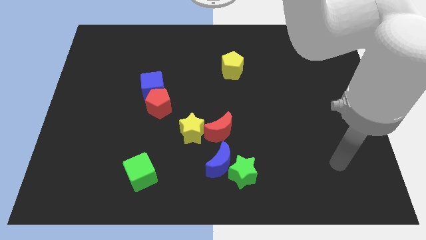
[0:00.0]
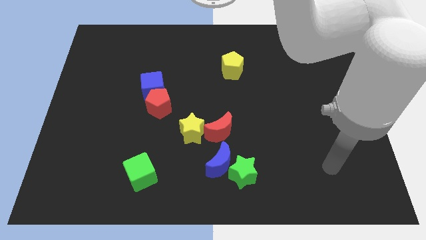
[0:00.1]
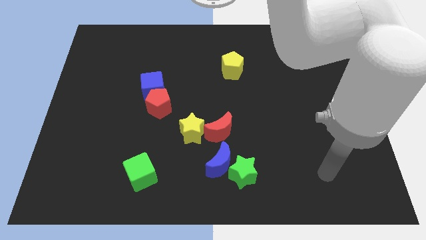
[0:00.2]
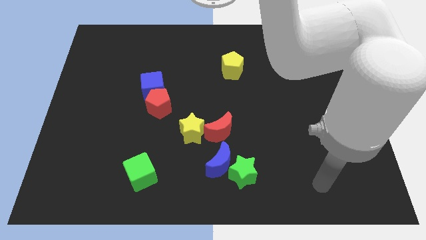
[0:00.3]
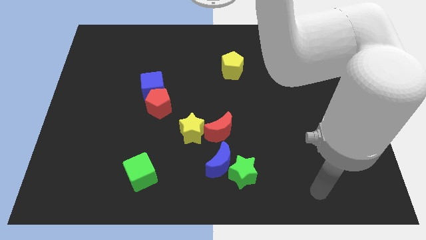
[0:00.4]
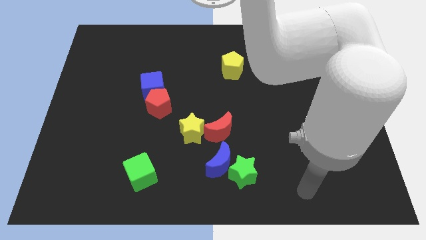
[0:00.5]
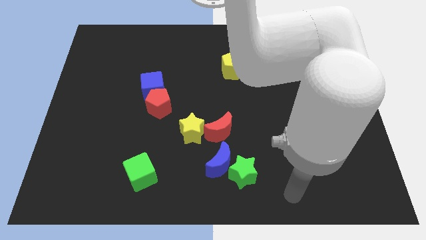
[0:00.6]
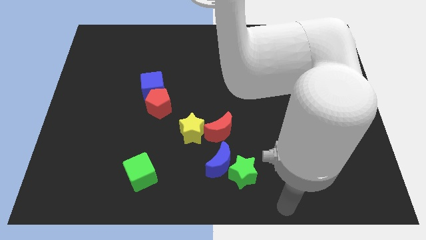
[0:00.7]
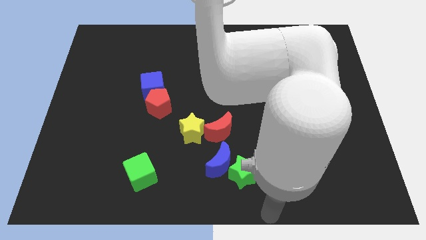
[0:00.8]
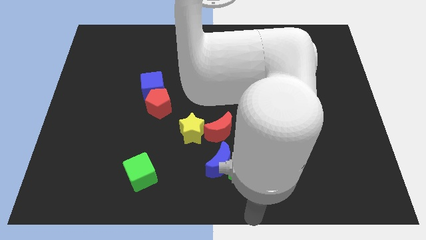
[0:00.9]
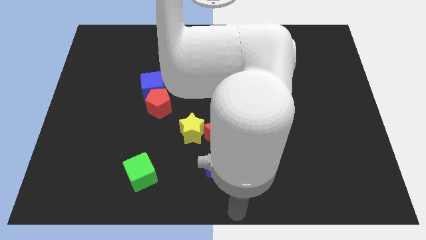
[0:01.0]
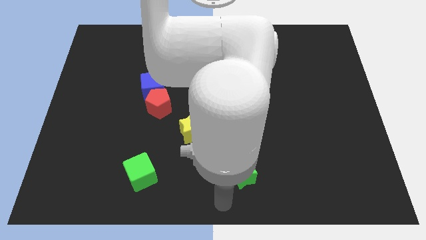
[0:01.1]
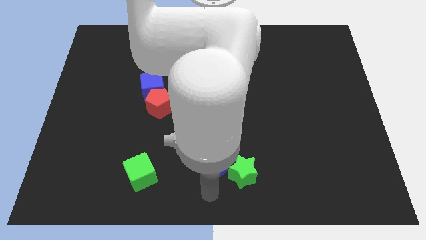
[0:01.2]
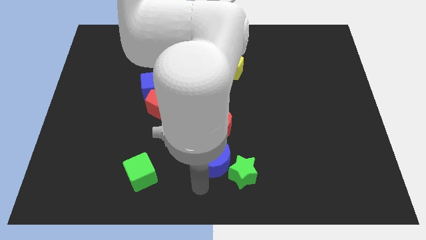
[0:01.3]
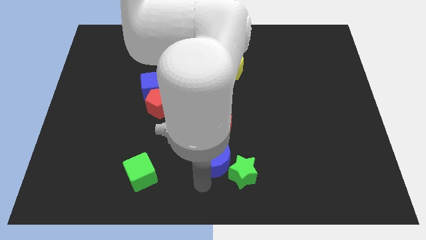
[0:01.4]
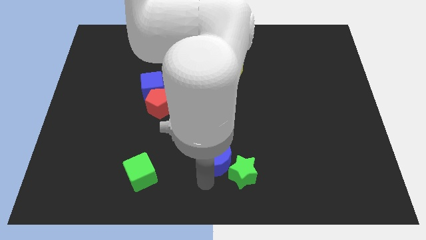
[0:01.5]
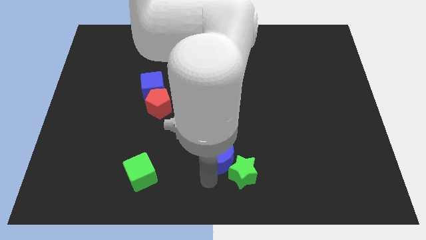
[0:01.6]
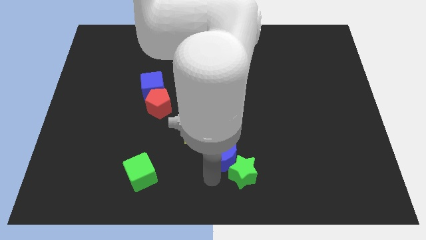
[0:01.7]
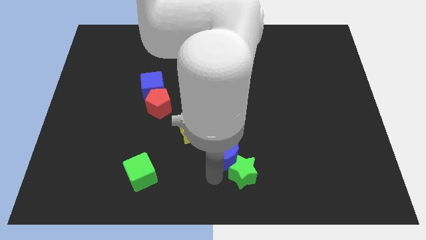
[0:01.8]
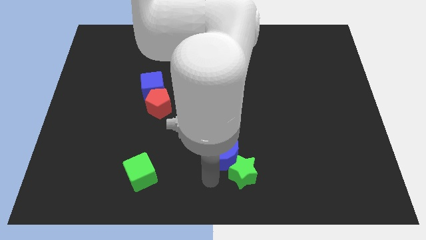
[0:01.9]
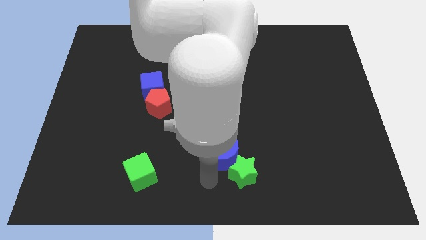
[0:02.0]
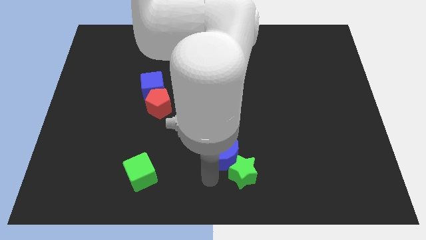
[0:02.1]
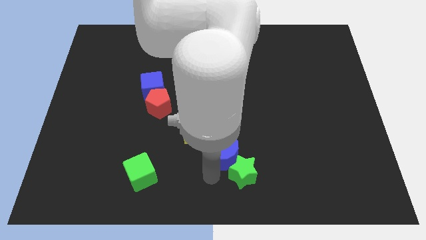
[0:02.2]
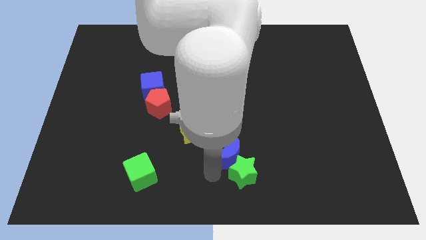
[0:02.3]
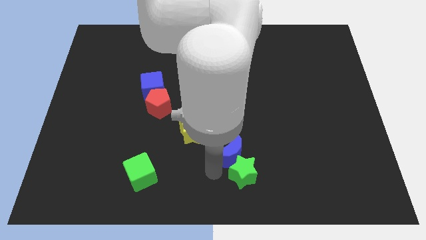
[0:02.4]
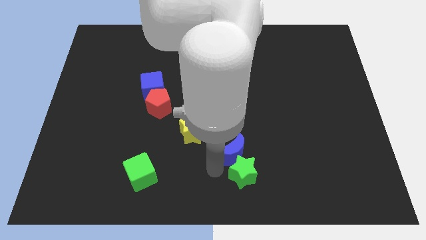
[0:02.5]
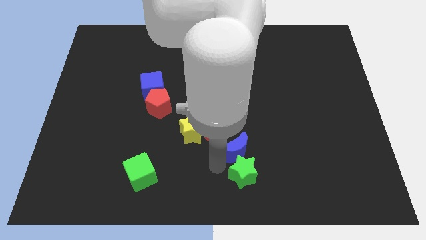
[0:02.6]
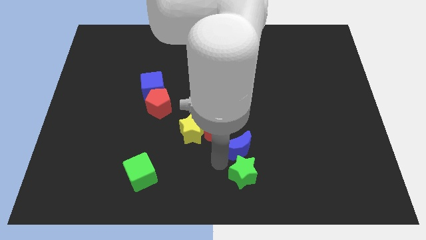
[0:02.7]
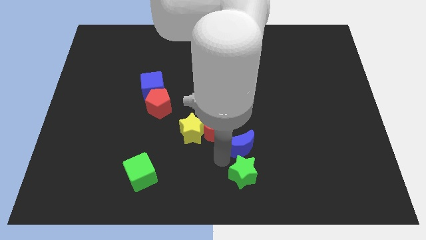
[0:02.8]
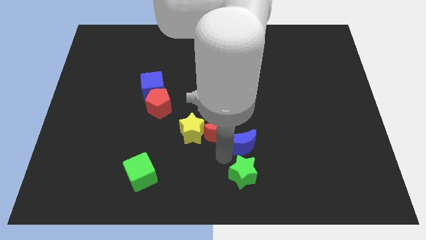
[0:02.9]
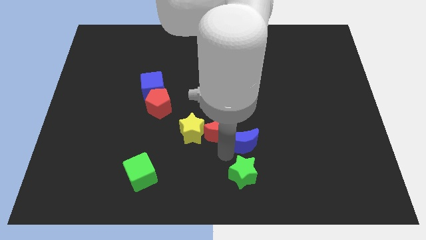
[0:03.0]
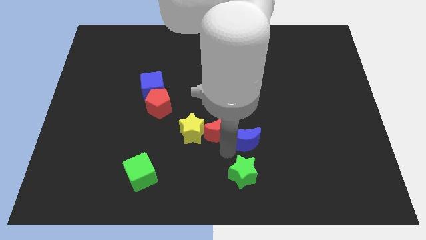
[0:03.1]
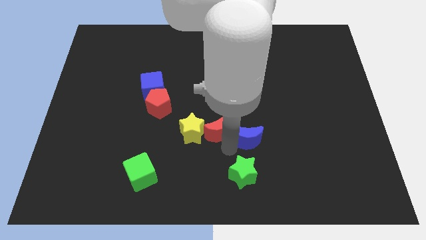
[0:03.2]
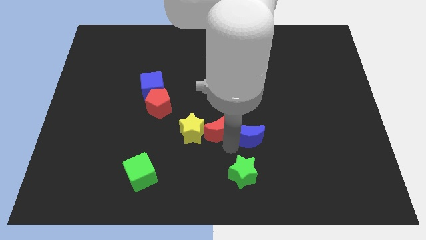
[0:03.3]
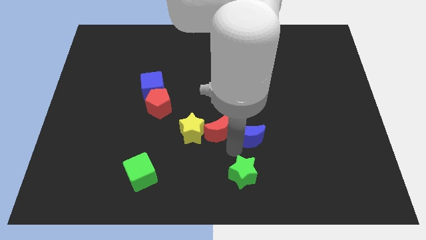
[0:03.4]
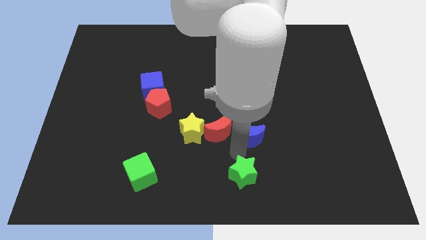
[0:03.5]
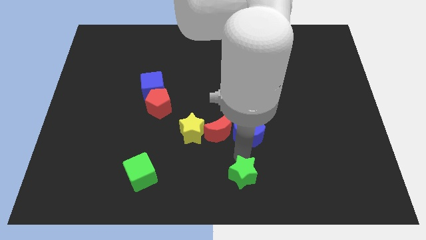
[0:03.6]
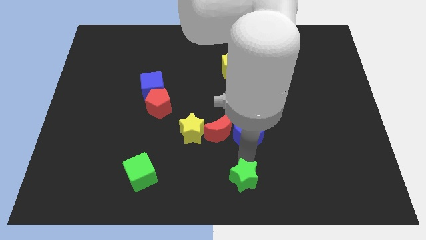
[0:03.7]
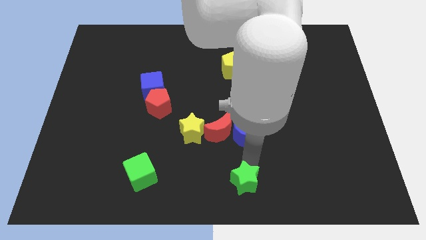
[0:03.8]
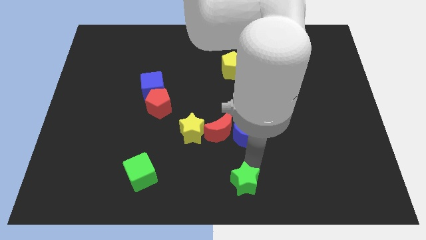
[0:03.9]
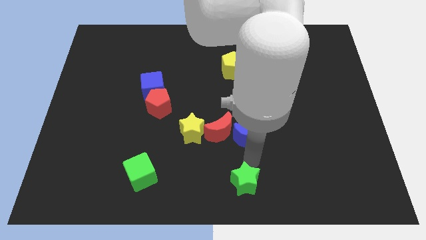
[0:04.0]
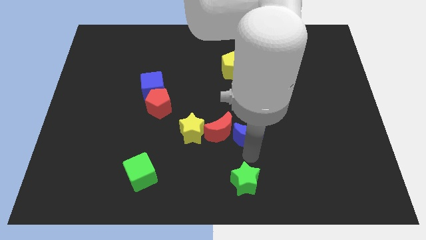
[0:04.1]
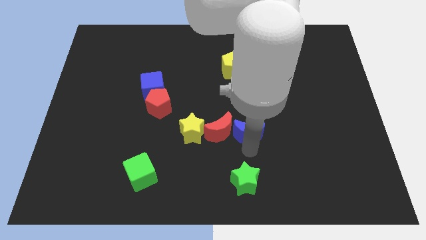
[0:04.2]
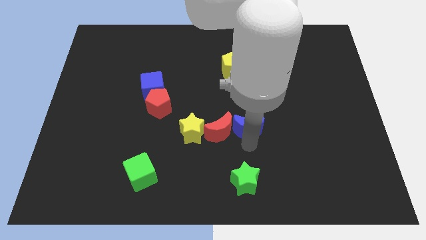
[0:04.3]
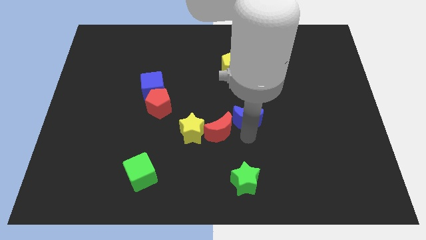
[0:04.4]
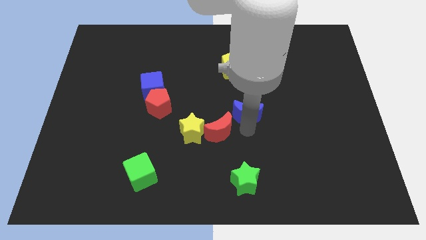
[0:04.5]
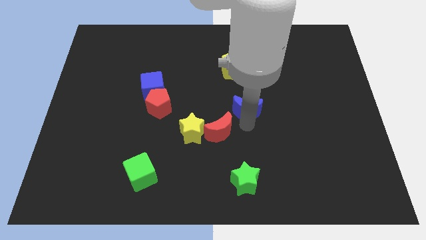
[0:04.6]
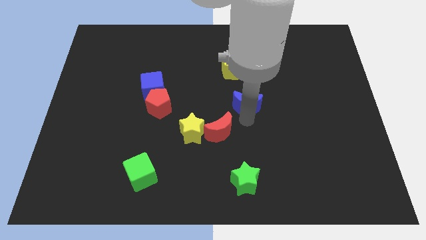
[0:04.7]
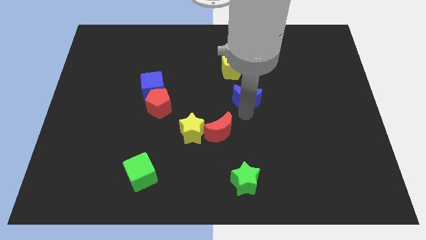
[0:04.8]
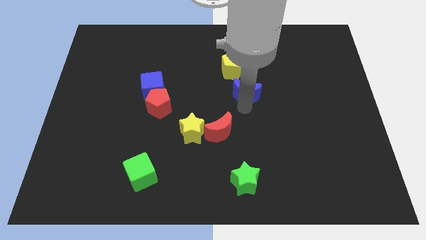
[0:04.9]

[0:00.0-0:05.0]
move the blue moon to the bottom right side of the yellow pentagon

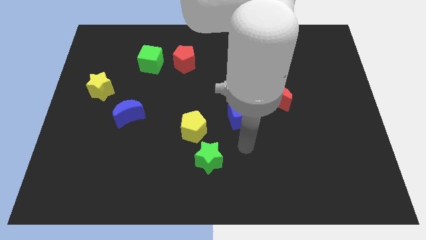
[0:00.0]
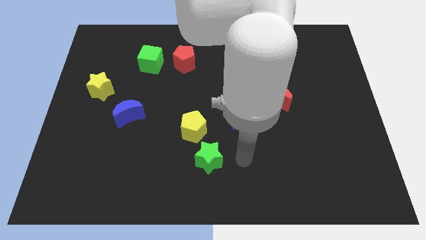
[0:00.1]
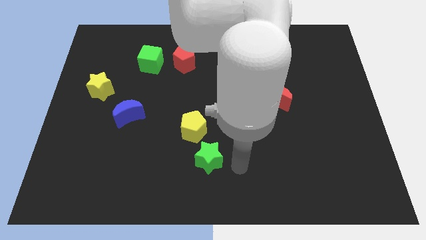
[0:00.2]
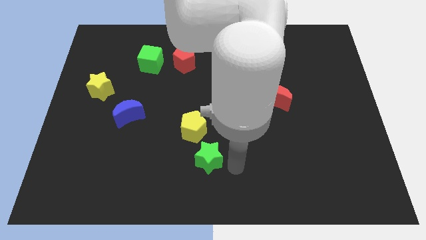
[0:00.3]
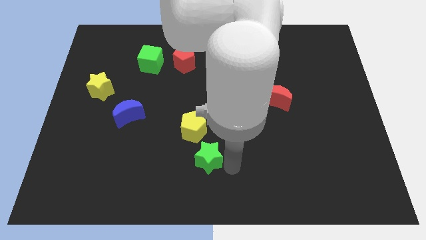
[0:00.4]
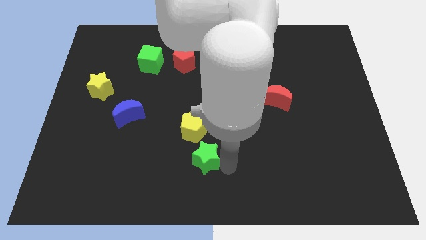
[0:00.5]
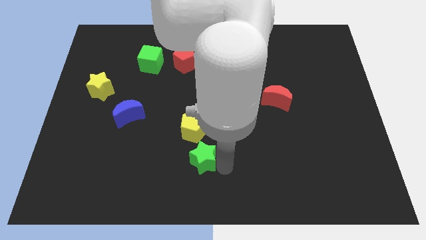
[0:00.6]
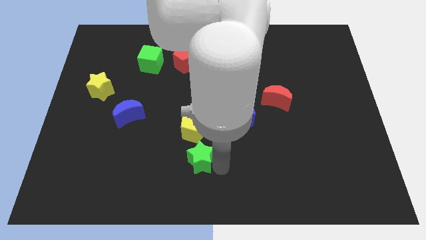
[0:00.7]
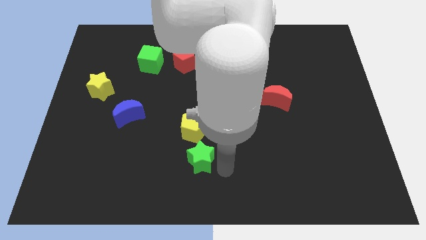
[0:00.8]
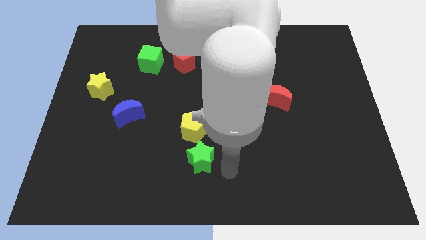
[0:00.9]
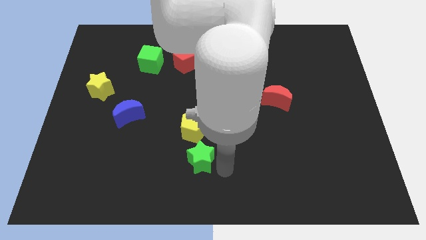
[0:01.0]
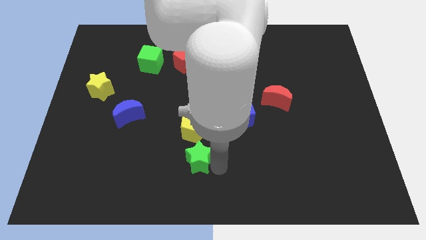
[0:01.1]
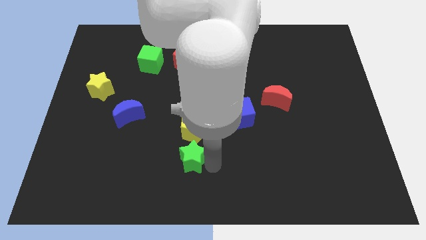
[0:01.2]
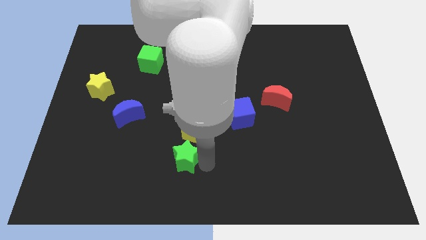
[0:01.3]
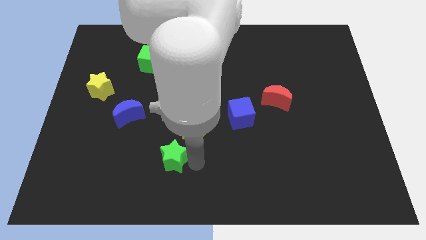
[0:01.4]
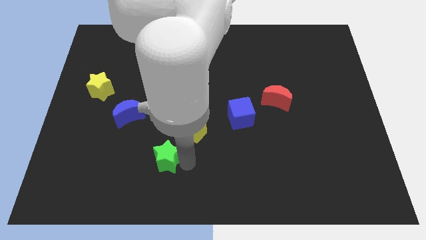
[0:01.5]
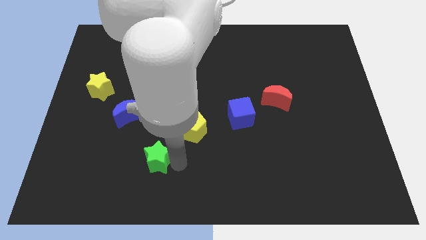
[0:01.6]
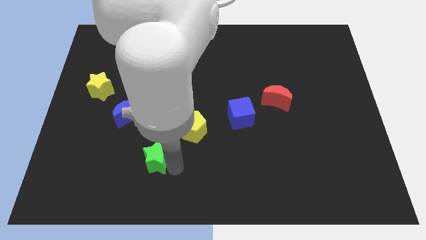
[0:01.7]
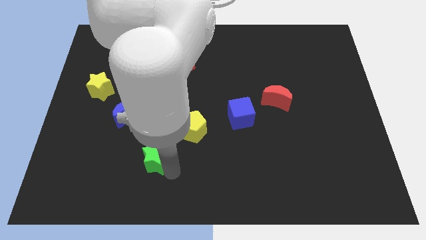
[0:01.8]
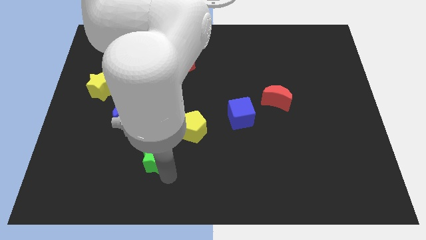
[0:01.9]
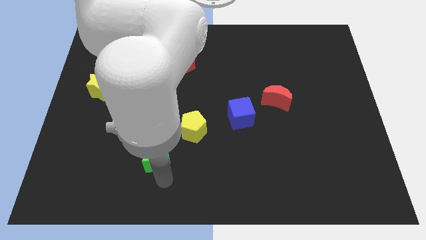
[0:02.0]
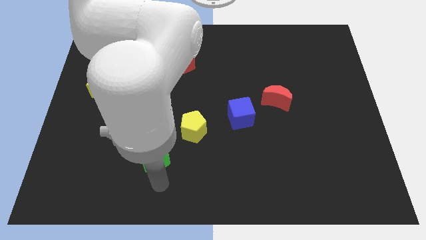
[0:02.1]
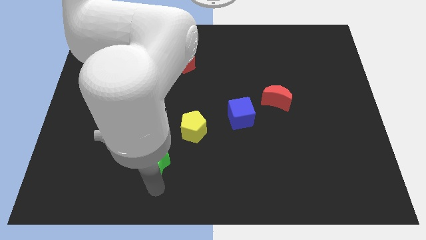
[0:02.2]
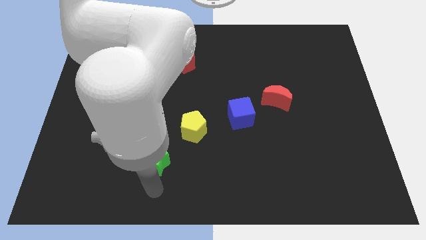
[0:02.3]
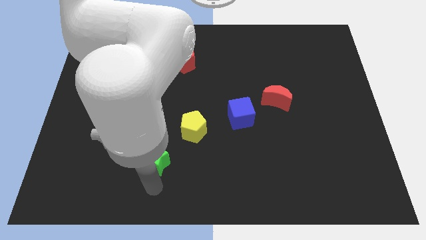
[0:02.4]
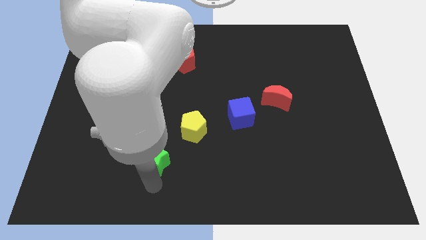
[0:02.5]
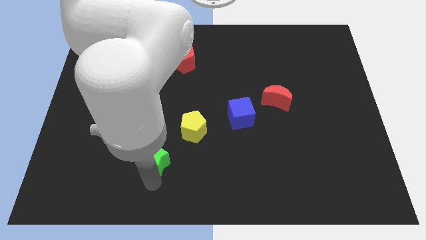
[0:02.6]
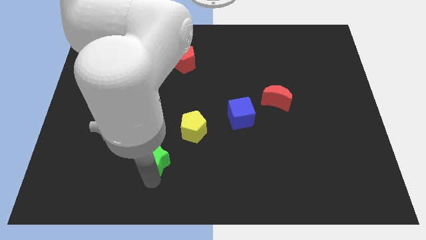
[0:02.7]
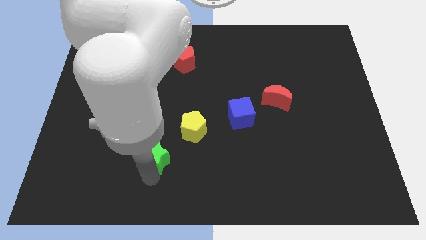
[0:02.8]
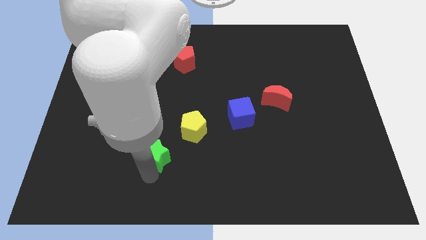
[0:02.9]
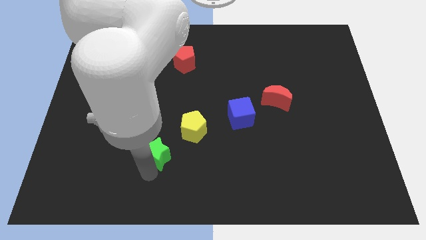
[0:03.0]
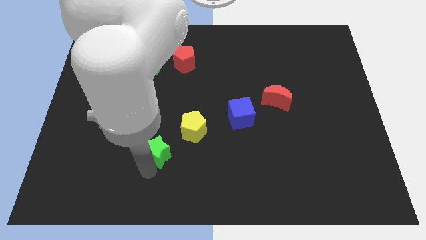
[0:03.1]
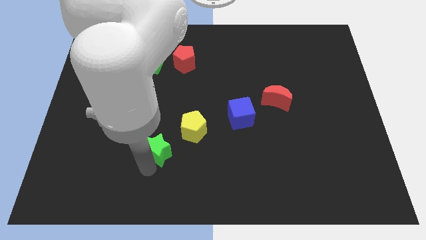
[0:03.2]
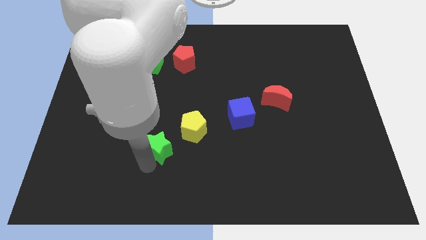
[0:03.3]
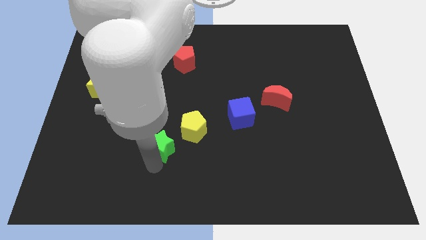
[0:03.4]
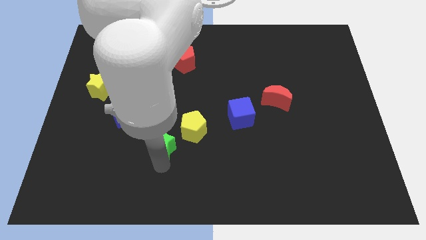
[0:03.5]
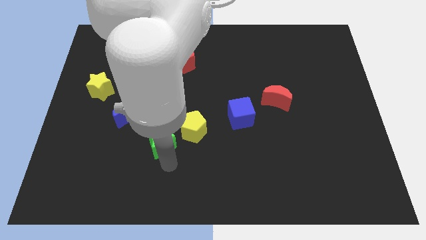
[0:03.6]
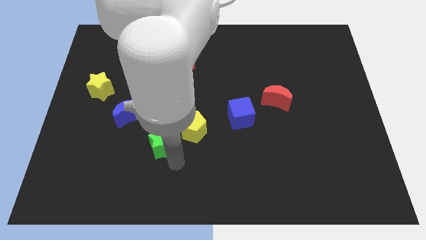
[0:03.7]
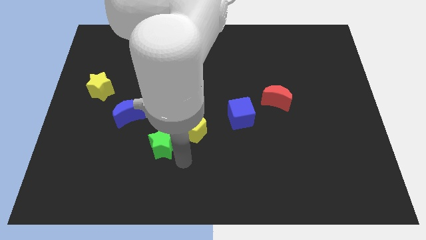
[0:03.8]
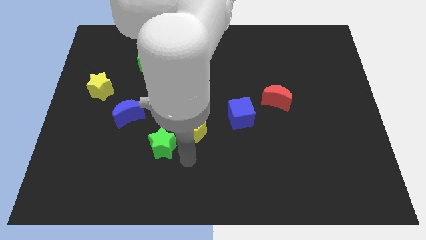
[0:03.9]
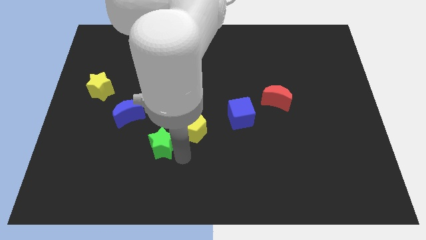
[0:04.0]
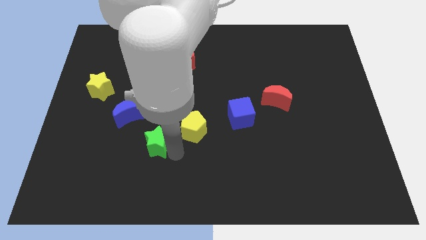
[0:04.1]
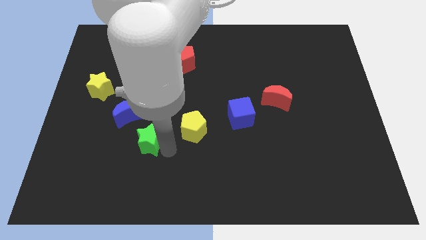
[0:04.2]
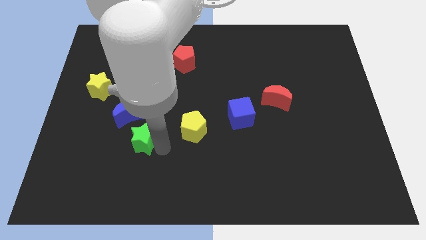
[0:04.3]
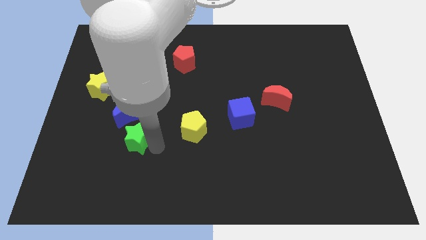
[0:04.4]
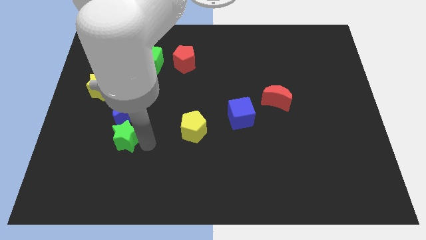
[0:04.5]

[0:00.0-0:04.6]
move the green star to the bottom left of the blue moon
